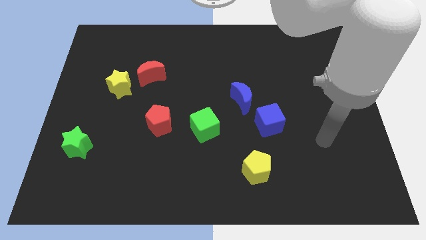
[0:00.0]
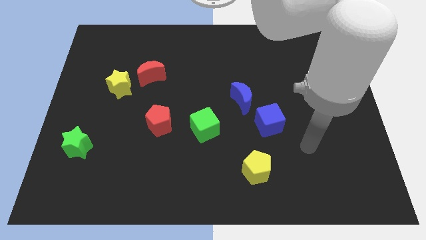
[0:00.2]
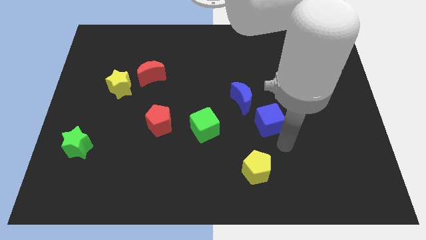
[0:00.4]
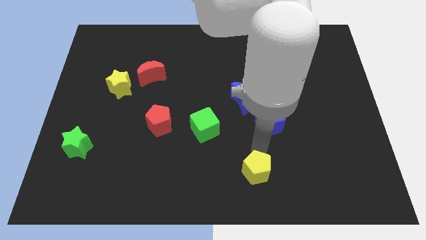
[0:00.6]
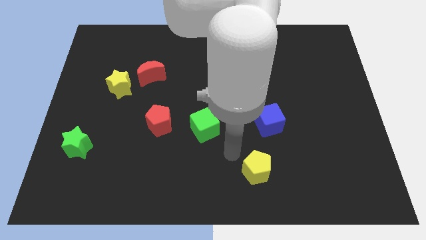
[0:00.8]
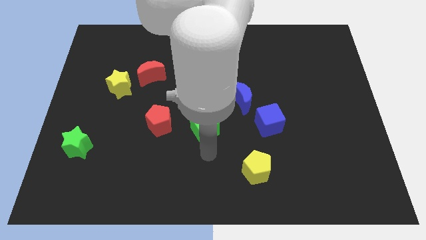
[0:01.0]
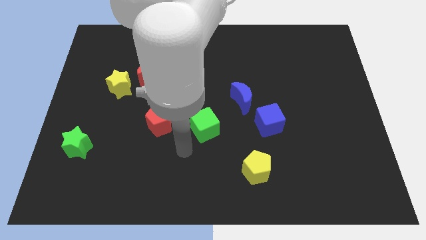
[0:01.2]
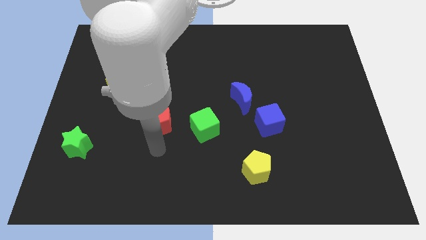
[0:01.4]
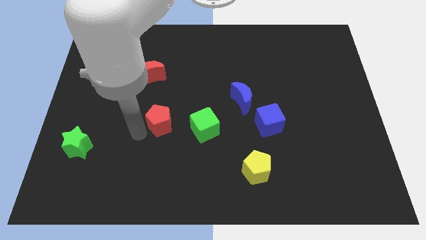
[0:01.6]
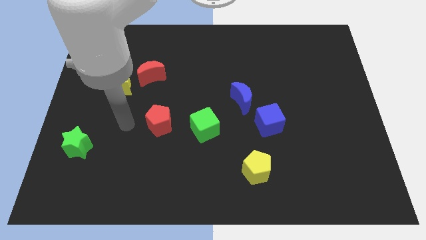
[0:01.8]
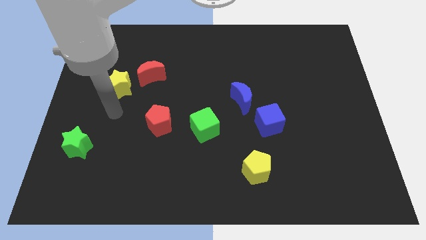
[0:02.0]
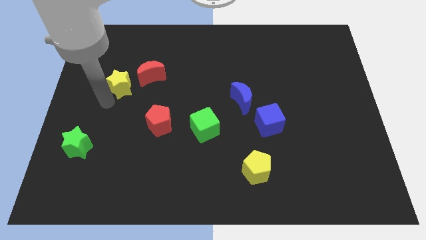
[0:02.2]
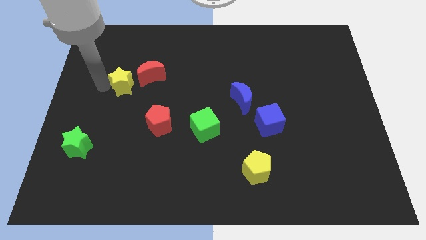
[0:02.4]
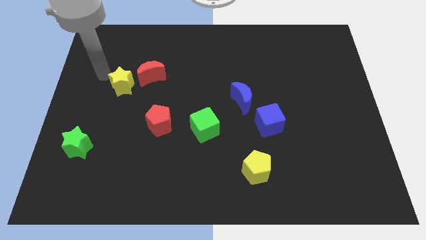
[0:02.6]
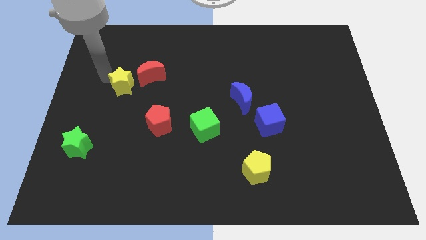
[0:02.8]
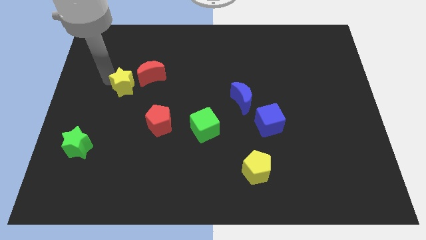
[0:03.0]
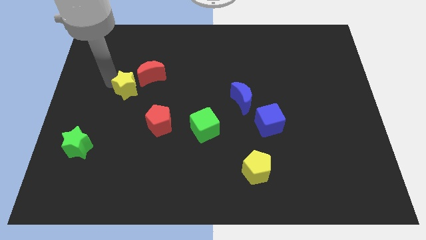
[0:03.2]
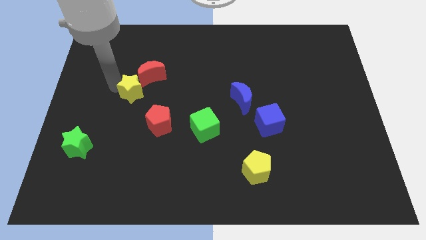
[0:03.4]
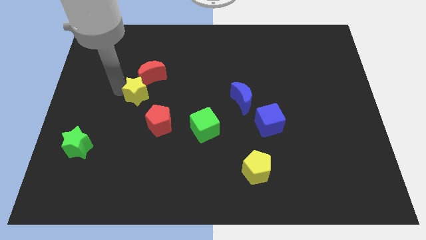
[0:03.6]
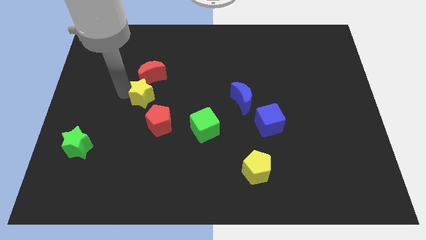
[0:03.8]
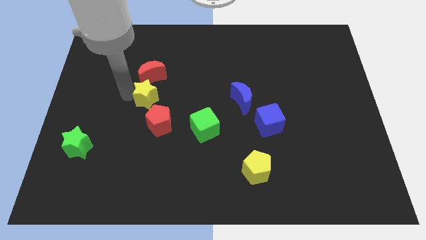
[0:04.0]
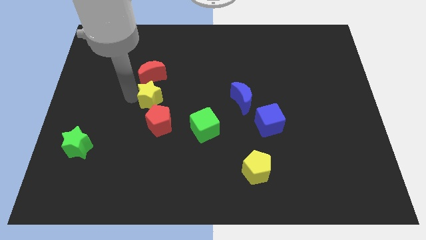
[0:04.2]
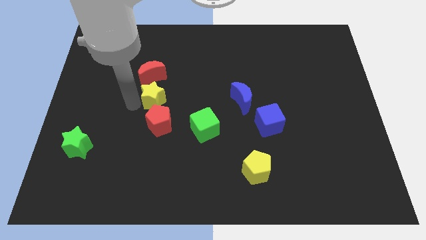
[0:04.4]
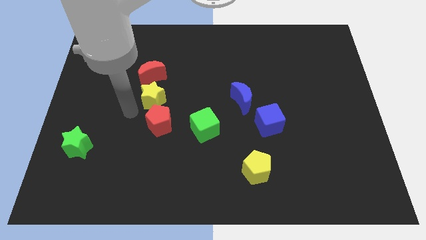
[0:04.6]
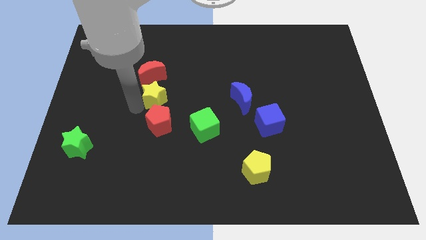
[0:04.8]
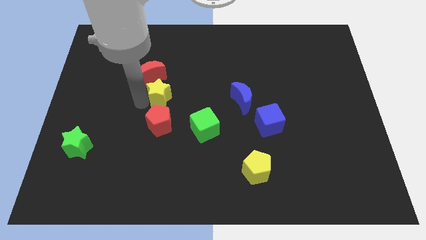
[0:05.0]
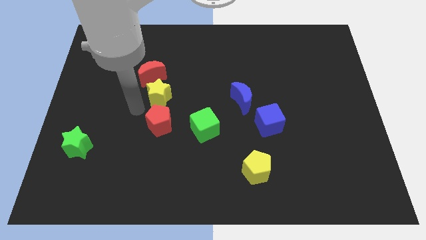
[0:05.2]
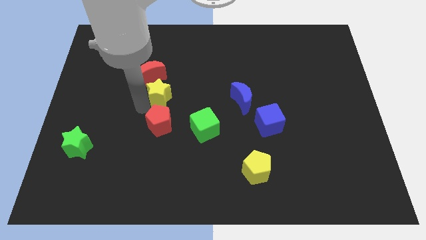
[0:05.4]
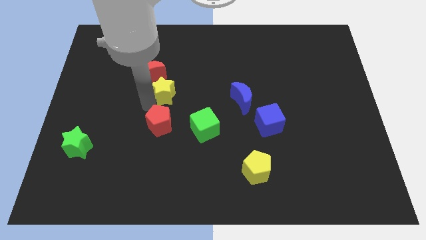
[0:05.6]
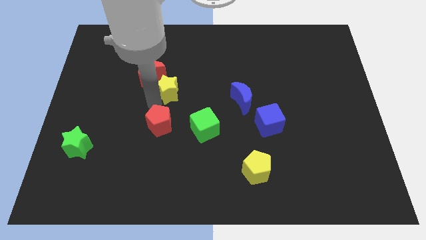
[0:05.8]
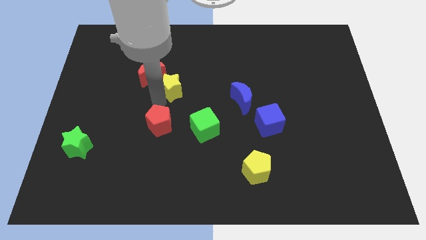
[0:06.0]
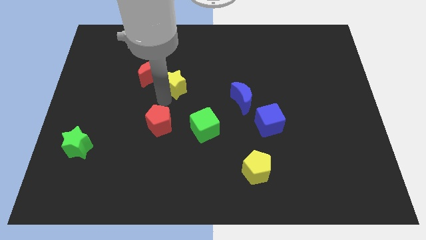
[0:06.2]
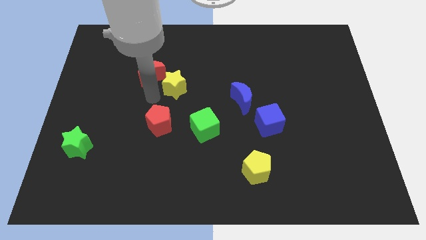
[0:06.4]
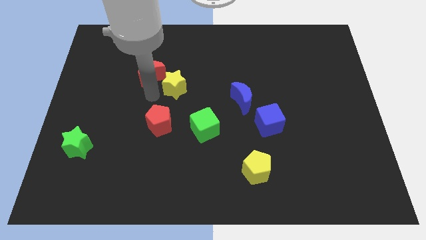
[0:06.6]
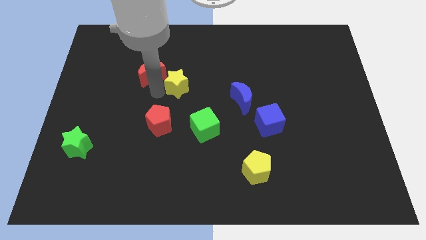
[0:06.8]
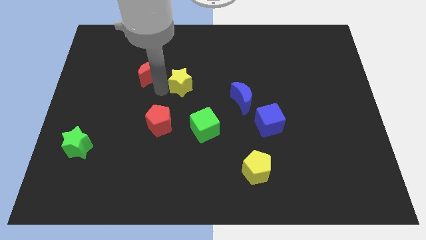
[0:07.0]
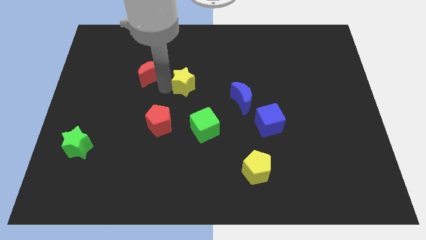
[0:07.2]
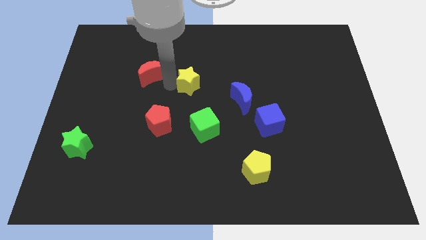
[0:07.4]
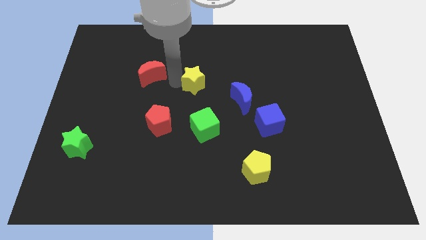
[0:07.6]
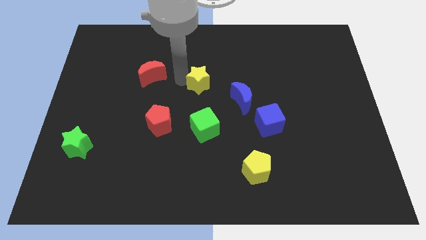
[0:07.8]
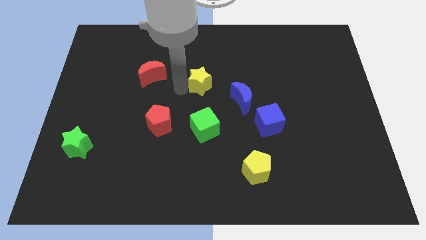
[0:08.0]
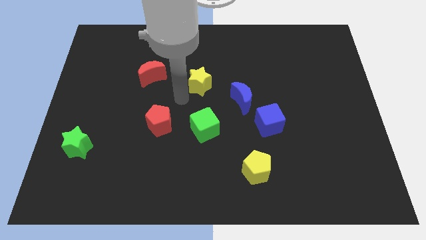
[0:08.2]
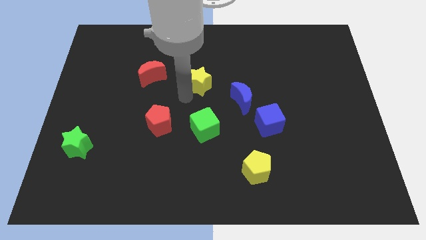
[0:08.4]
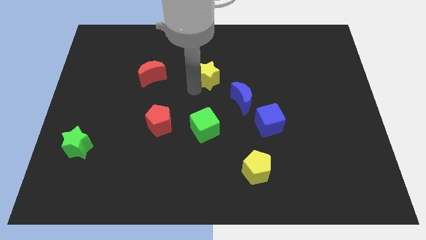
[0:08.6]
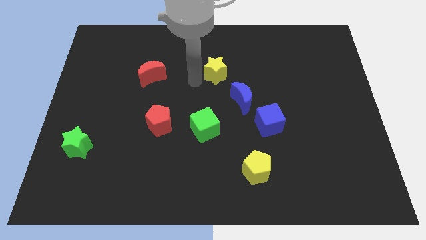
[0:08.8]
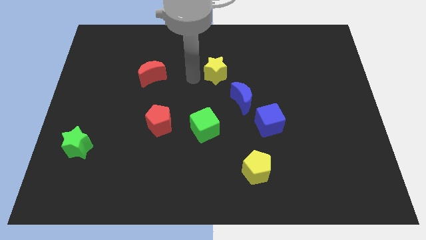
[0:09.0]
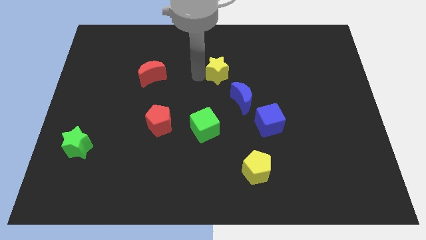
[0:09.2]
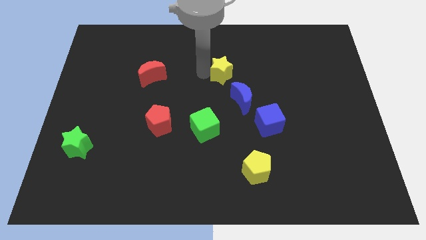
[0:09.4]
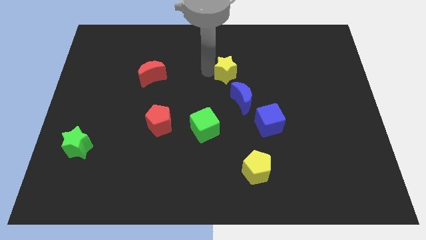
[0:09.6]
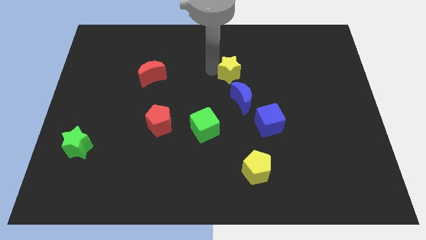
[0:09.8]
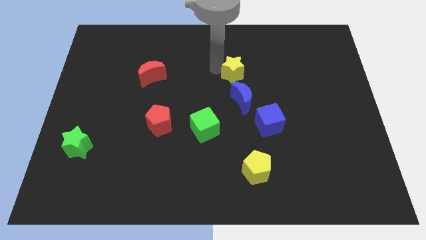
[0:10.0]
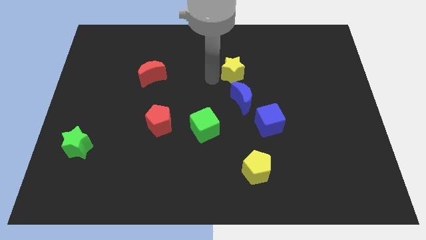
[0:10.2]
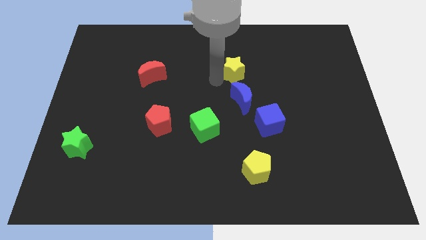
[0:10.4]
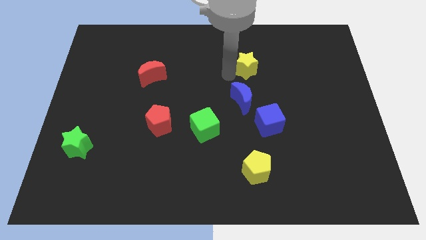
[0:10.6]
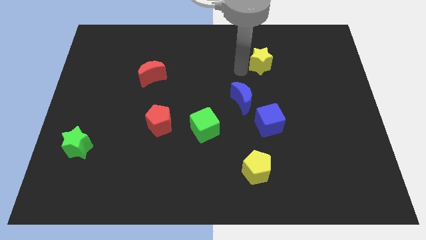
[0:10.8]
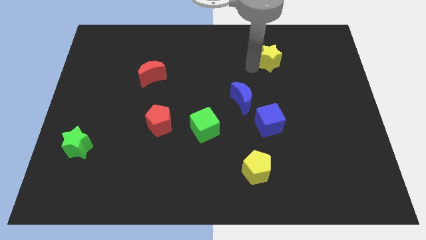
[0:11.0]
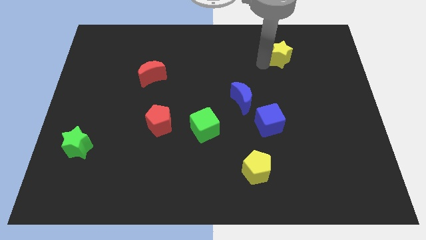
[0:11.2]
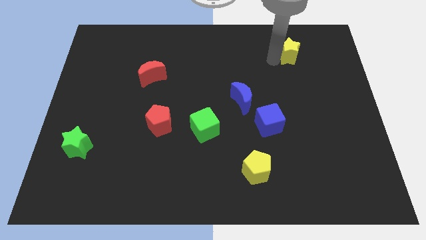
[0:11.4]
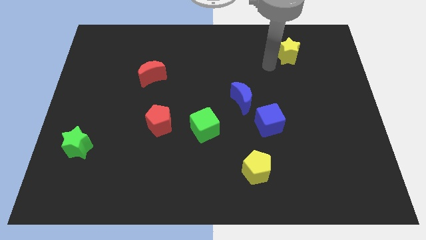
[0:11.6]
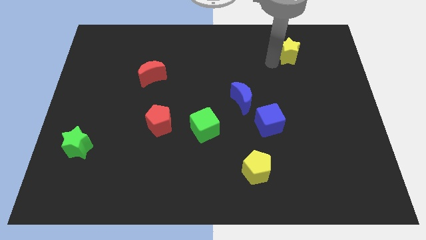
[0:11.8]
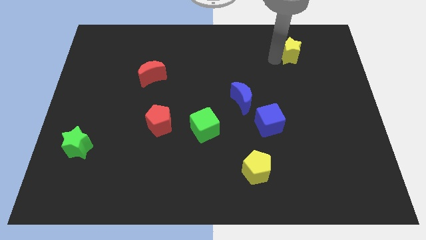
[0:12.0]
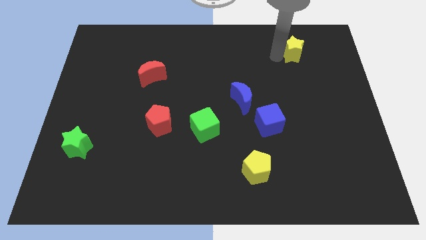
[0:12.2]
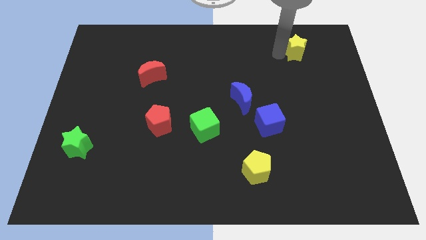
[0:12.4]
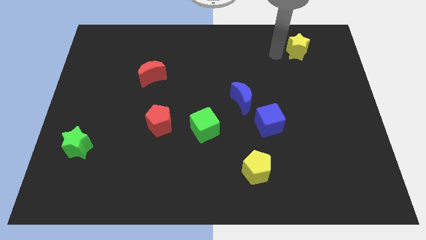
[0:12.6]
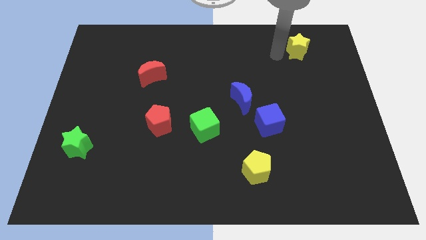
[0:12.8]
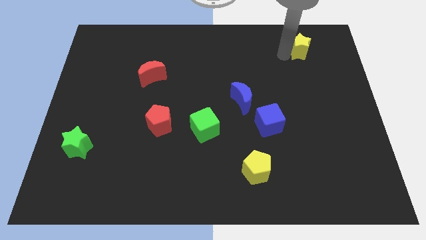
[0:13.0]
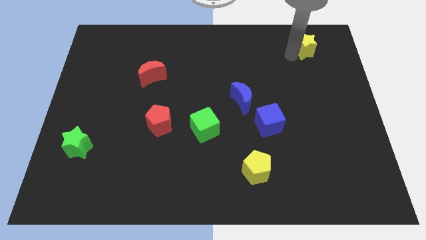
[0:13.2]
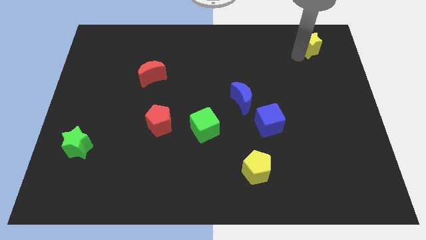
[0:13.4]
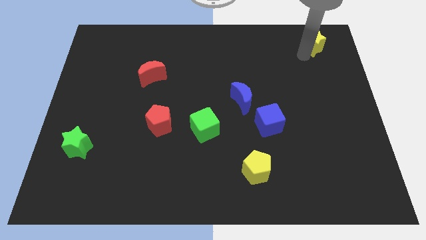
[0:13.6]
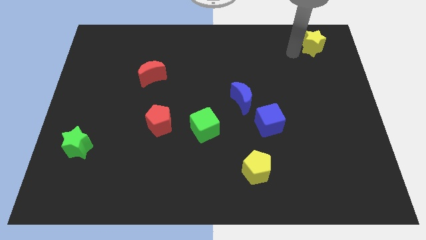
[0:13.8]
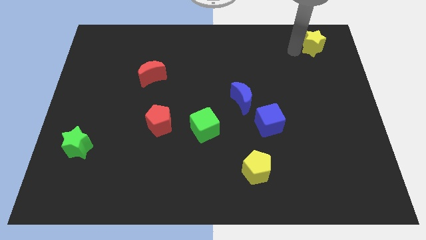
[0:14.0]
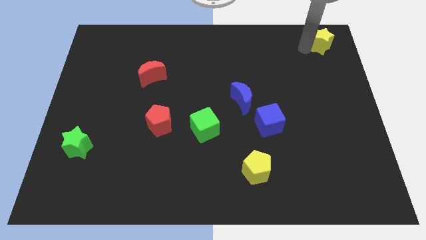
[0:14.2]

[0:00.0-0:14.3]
put the yellow star to the top right
